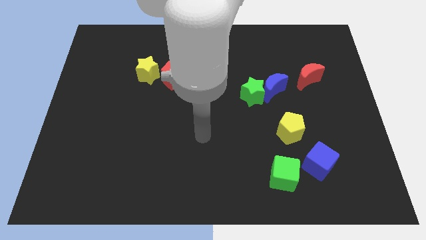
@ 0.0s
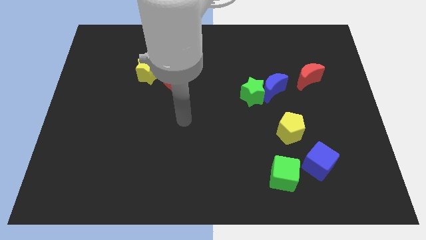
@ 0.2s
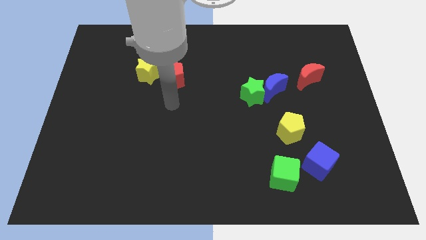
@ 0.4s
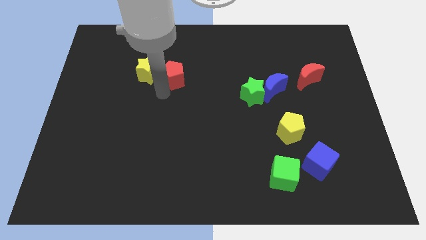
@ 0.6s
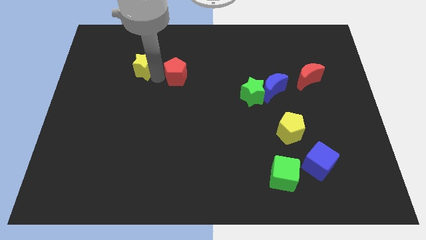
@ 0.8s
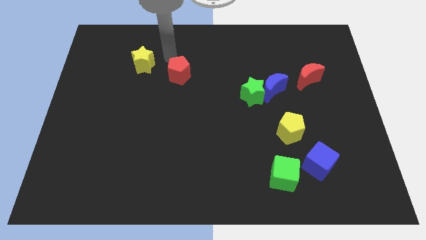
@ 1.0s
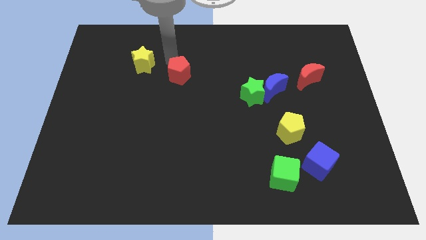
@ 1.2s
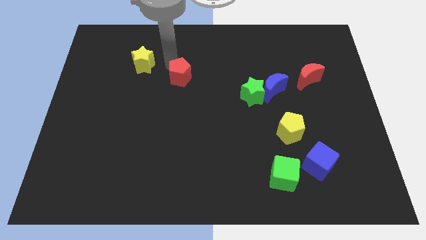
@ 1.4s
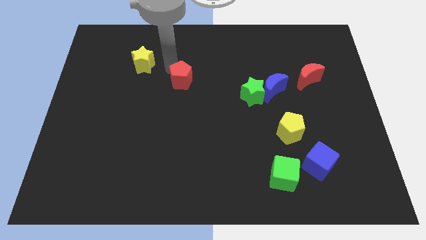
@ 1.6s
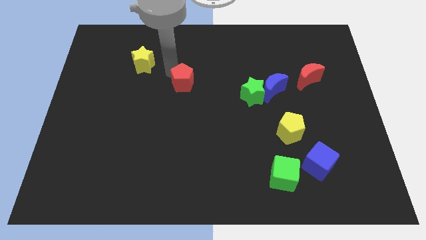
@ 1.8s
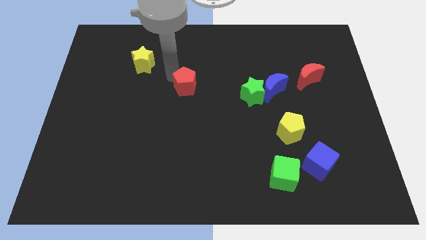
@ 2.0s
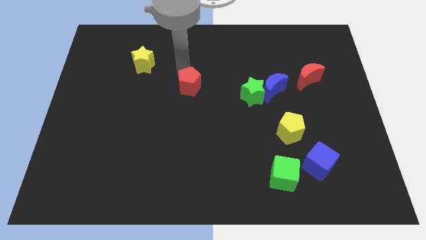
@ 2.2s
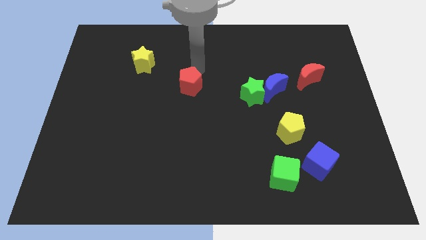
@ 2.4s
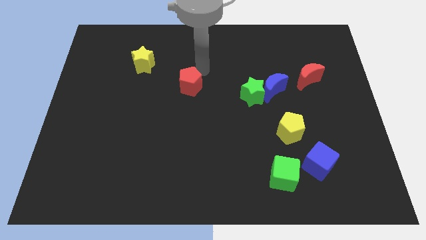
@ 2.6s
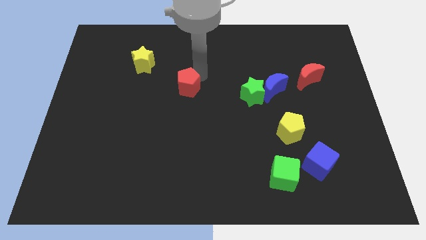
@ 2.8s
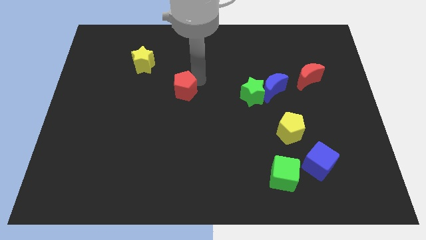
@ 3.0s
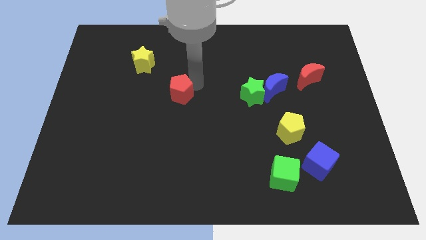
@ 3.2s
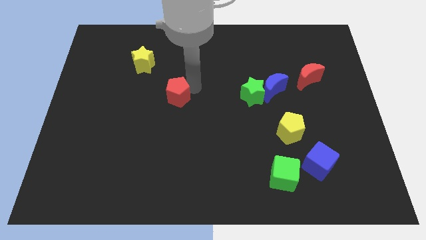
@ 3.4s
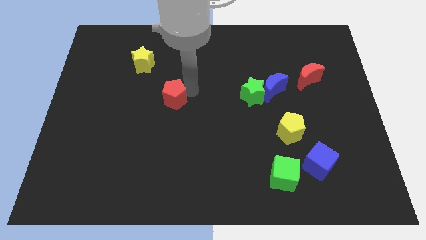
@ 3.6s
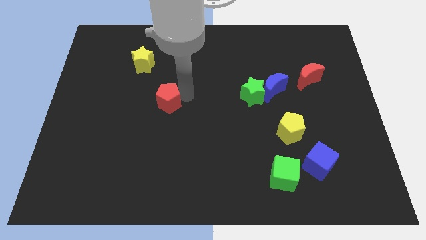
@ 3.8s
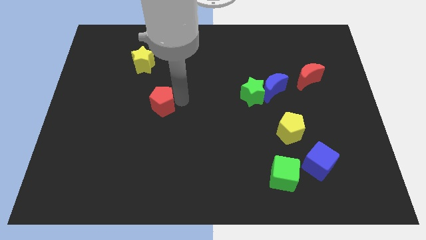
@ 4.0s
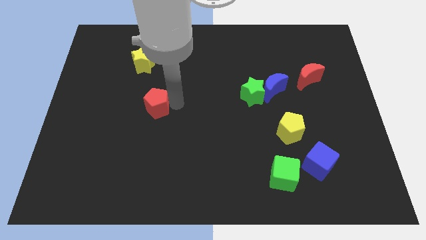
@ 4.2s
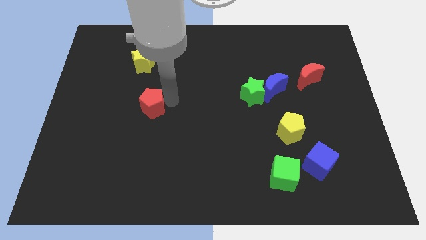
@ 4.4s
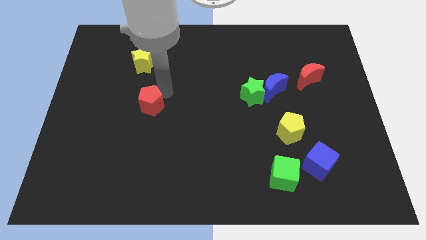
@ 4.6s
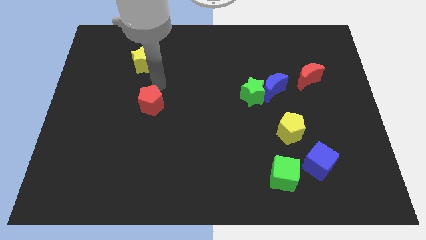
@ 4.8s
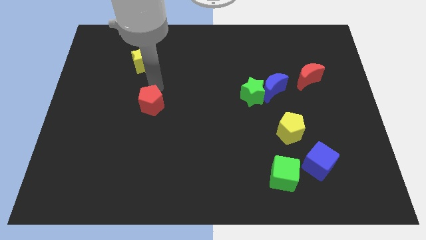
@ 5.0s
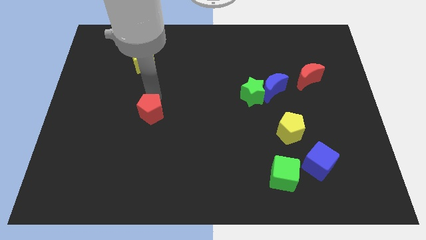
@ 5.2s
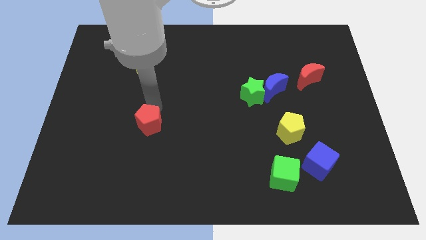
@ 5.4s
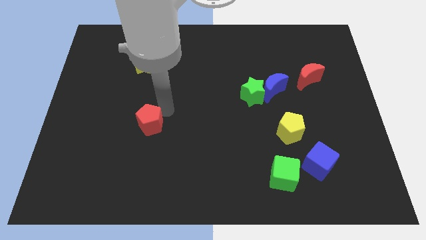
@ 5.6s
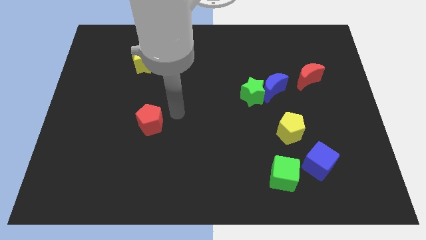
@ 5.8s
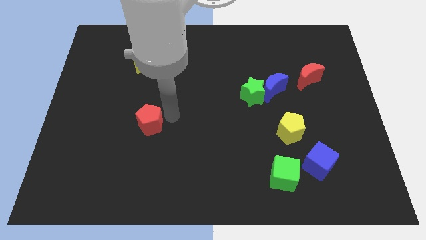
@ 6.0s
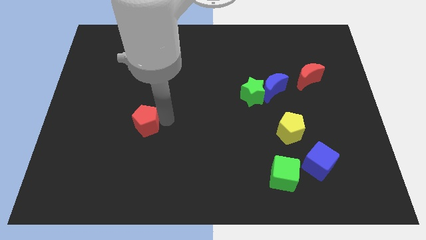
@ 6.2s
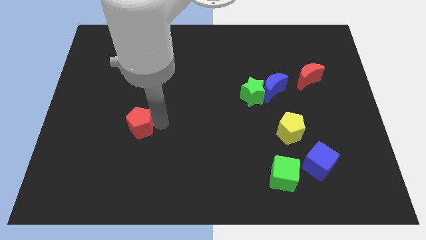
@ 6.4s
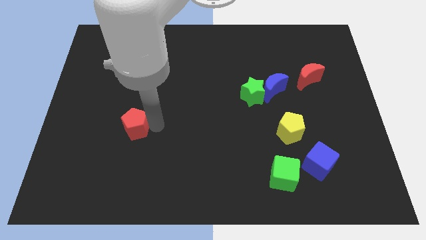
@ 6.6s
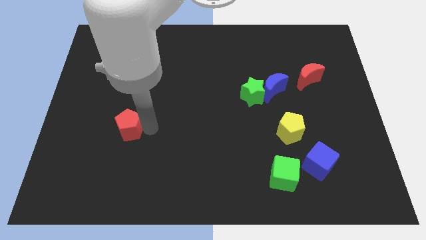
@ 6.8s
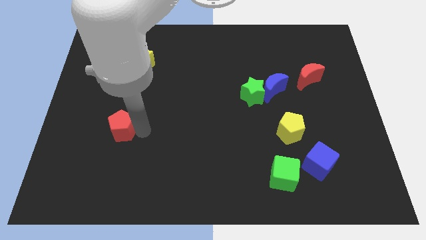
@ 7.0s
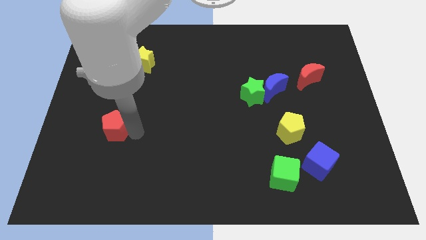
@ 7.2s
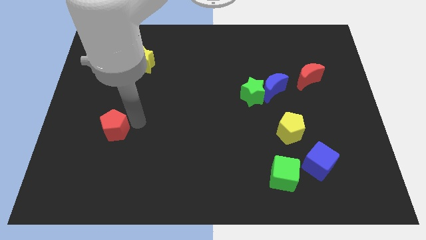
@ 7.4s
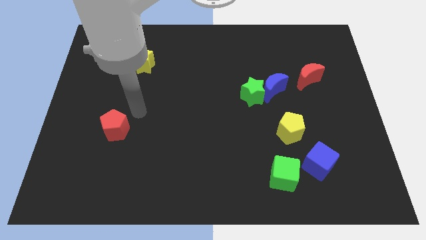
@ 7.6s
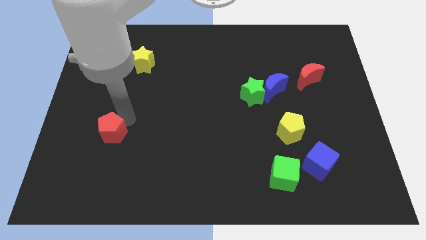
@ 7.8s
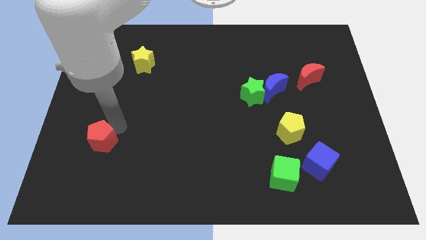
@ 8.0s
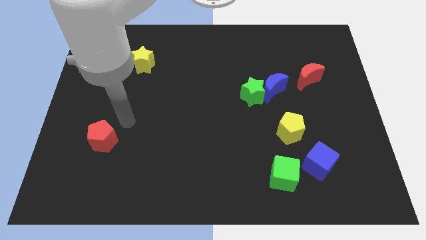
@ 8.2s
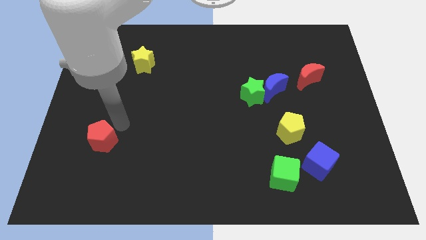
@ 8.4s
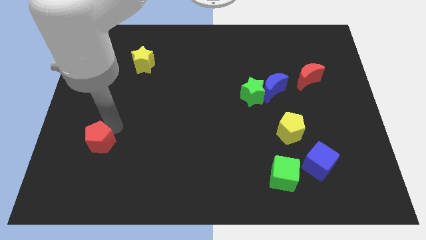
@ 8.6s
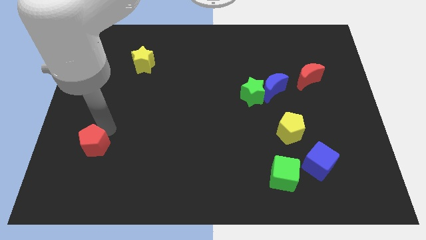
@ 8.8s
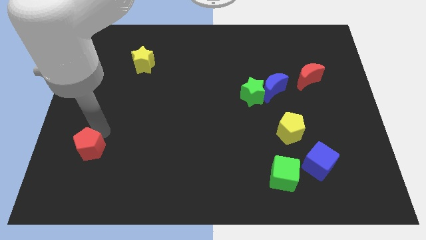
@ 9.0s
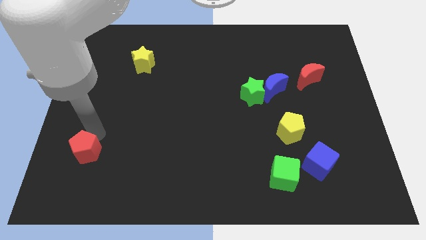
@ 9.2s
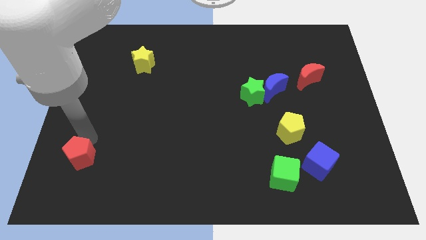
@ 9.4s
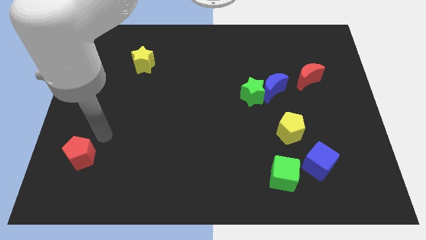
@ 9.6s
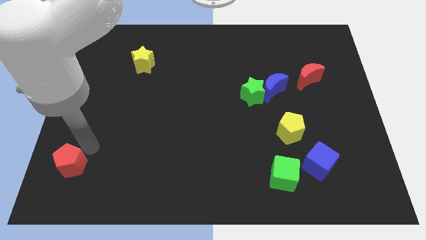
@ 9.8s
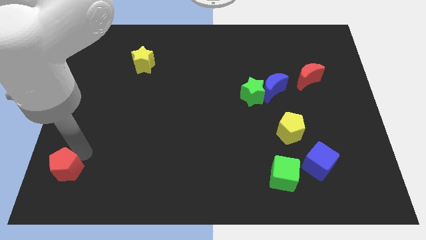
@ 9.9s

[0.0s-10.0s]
put the red pentagon to the bottom left corner

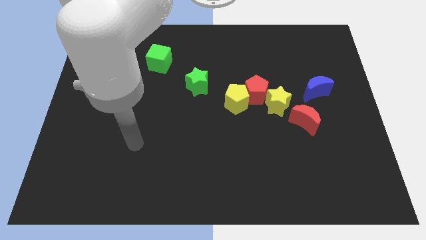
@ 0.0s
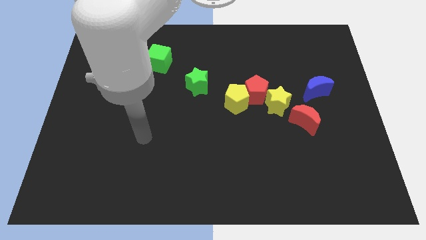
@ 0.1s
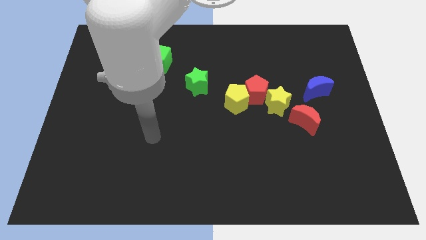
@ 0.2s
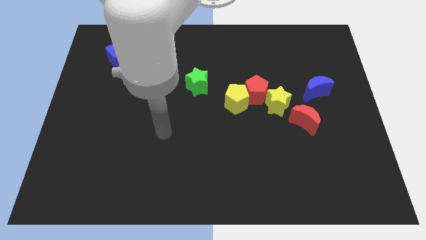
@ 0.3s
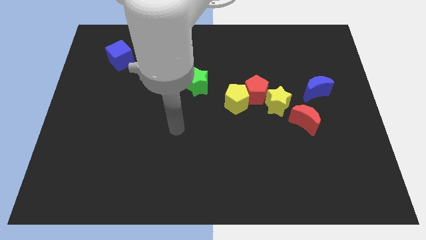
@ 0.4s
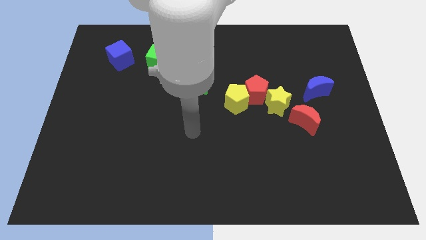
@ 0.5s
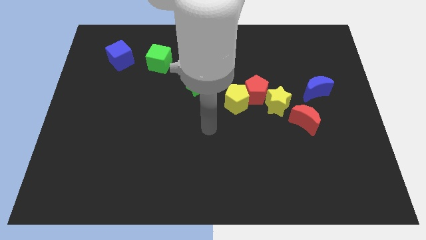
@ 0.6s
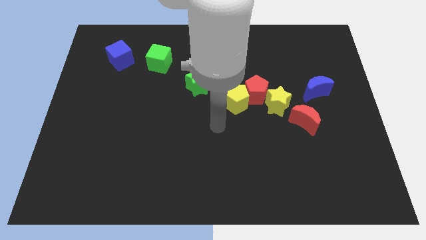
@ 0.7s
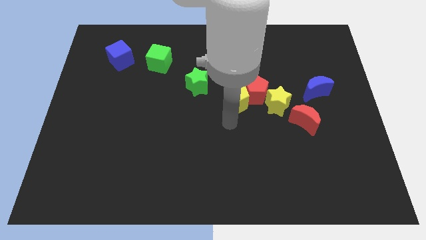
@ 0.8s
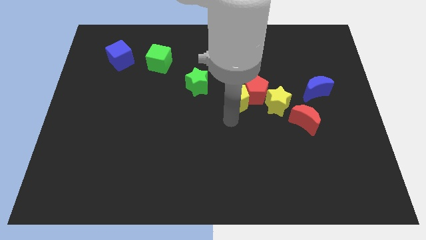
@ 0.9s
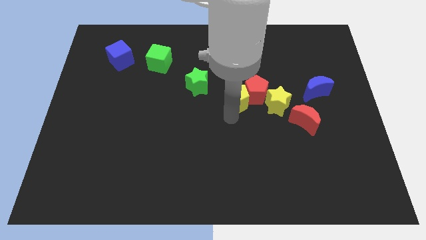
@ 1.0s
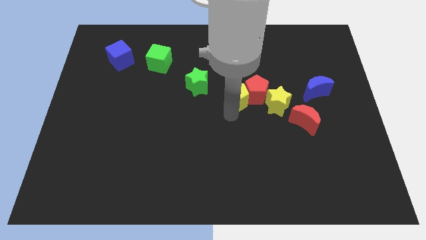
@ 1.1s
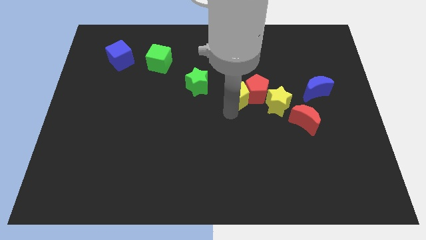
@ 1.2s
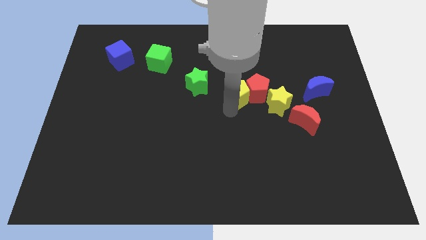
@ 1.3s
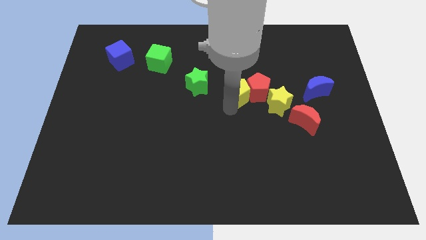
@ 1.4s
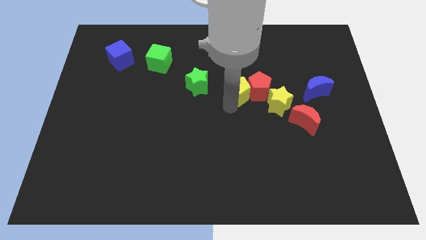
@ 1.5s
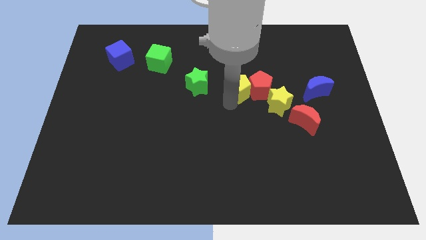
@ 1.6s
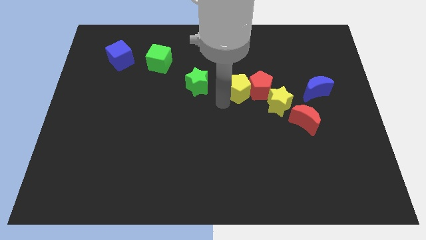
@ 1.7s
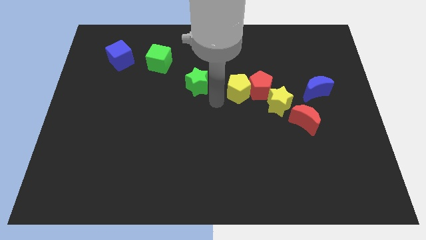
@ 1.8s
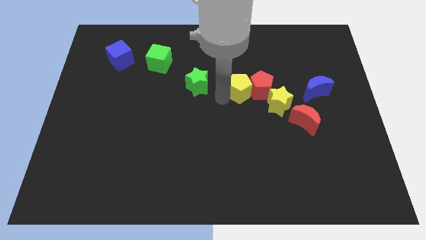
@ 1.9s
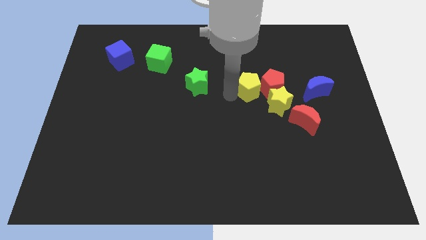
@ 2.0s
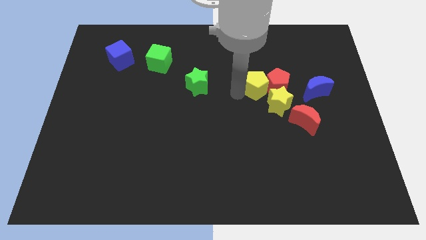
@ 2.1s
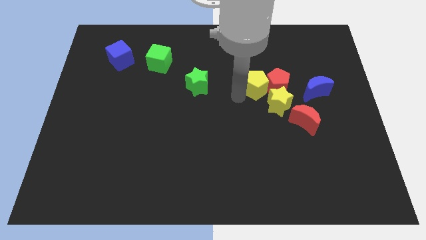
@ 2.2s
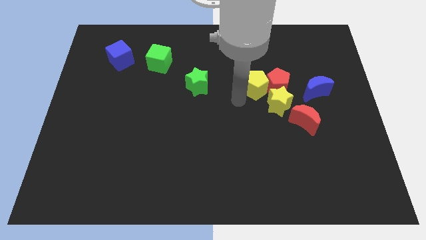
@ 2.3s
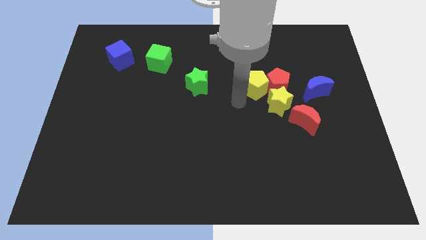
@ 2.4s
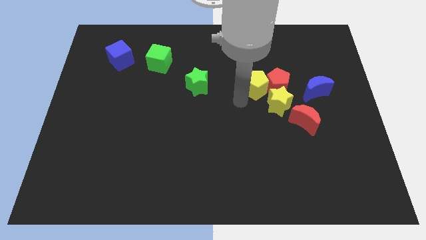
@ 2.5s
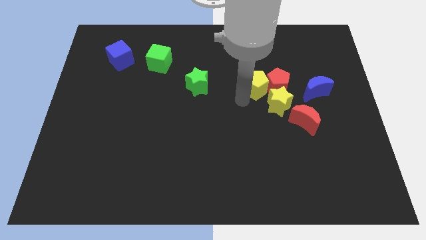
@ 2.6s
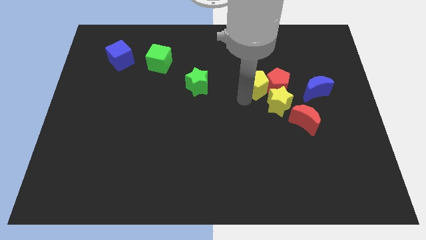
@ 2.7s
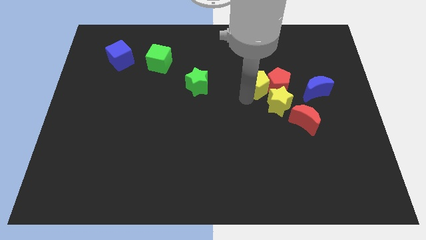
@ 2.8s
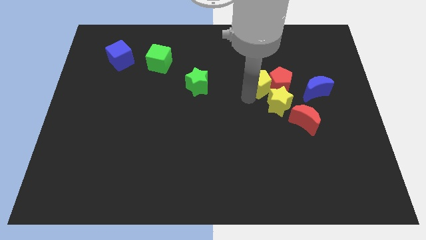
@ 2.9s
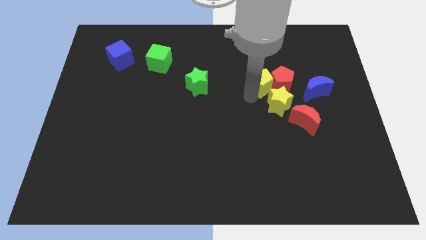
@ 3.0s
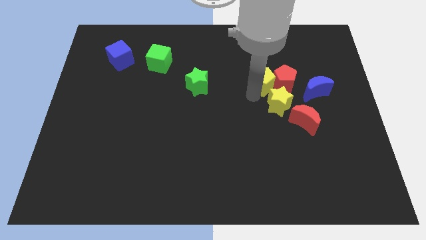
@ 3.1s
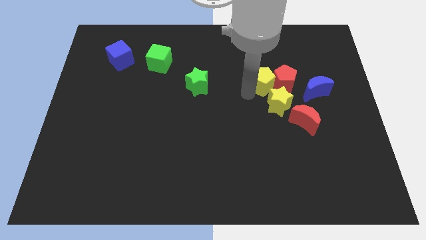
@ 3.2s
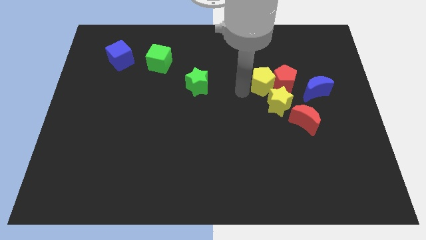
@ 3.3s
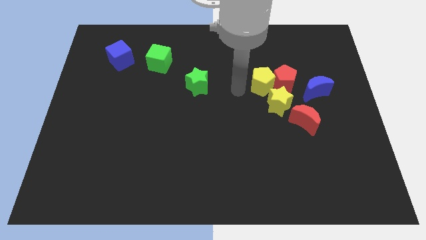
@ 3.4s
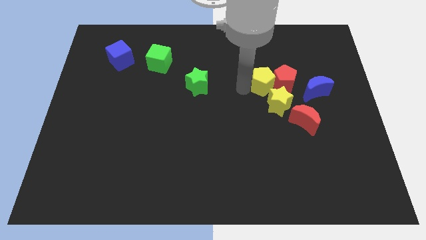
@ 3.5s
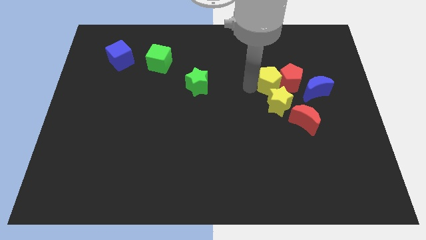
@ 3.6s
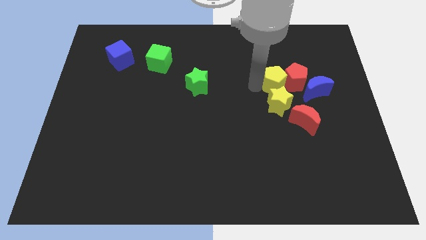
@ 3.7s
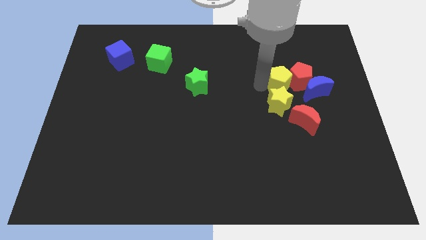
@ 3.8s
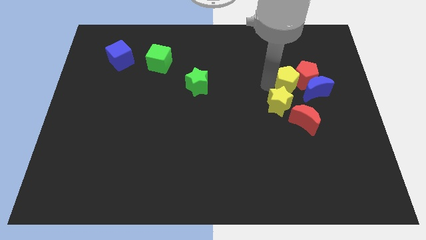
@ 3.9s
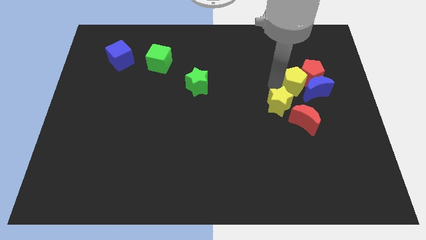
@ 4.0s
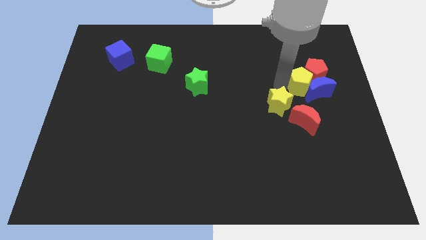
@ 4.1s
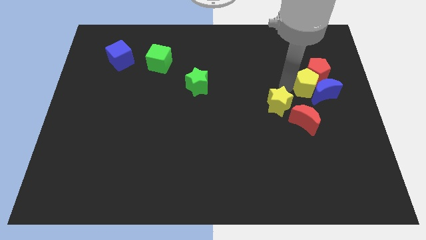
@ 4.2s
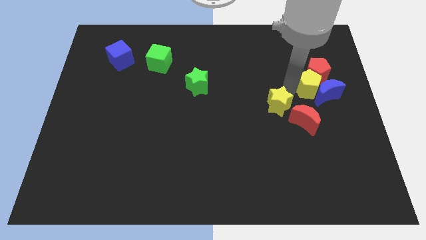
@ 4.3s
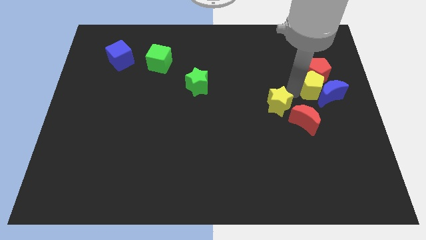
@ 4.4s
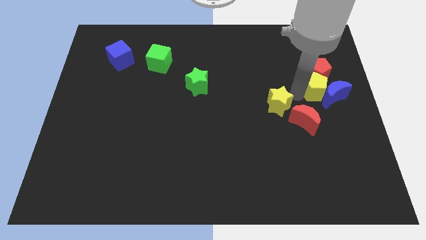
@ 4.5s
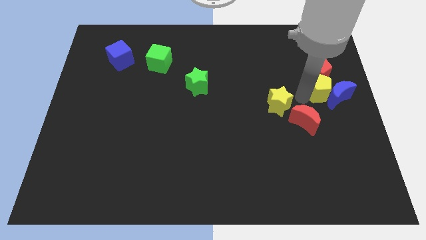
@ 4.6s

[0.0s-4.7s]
push the yellow pentagon to the right side of the board
